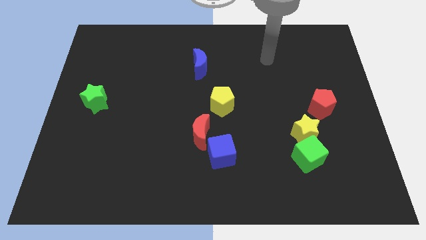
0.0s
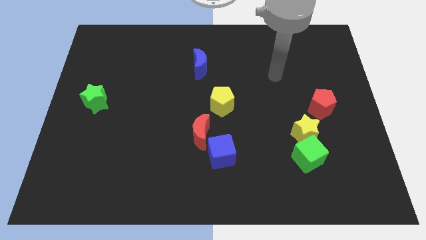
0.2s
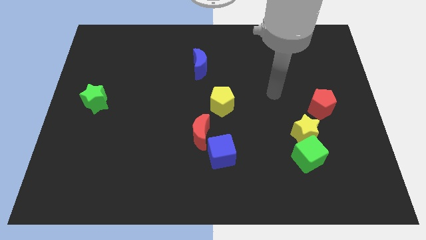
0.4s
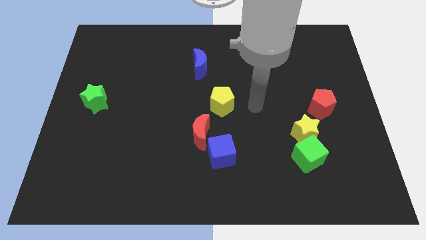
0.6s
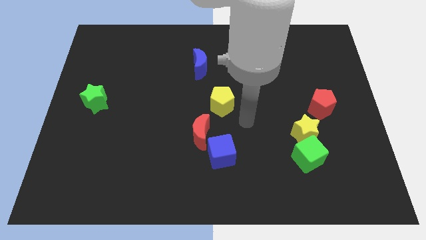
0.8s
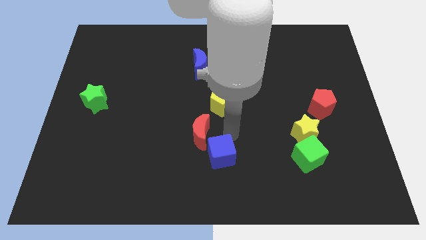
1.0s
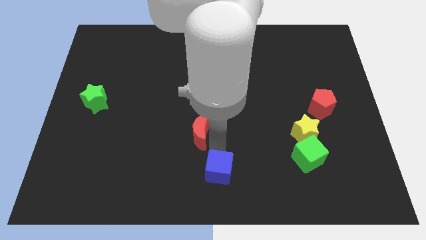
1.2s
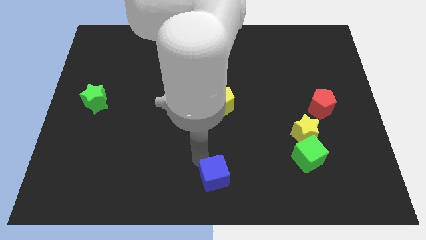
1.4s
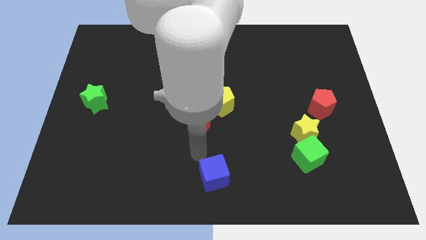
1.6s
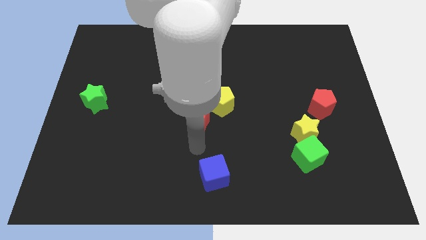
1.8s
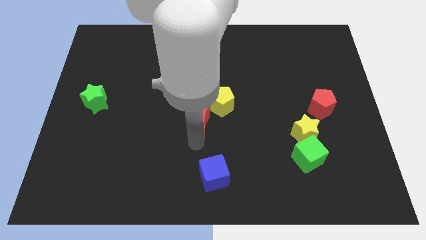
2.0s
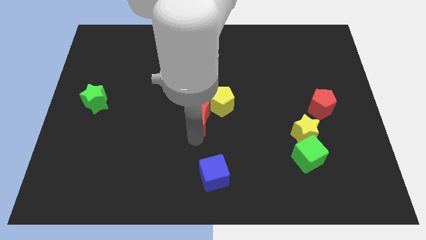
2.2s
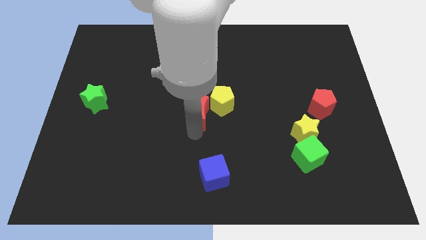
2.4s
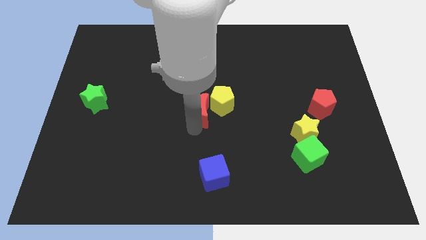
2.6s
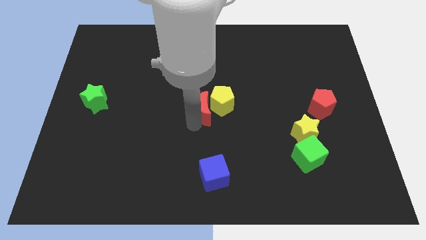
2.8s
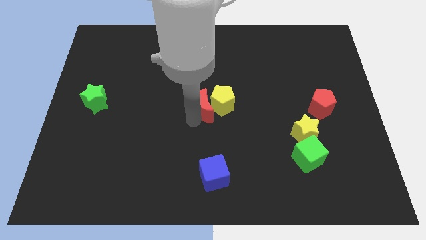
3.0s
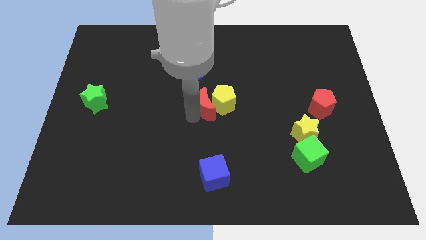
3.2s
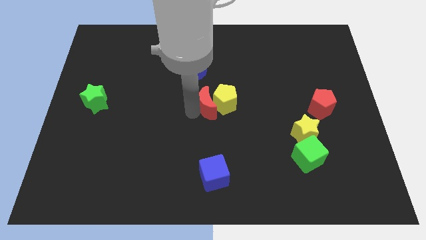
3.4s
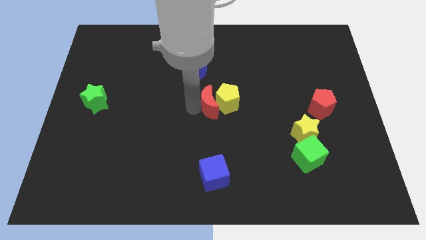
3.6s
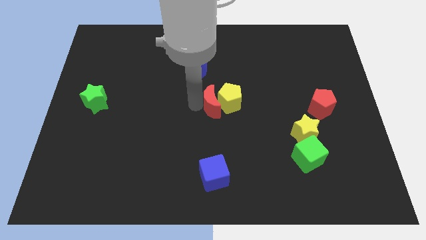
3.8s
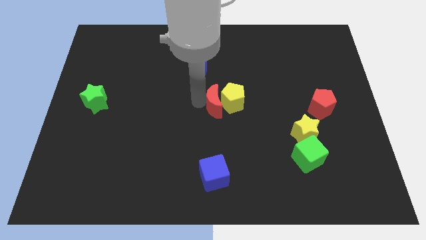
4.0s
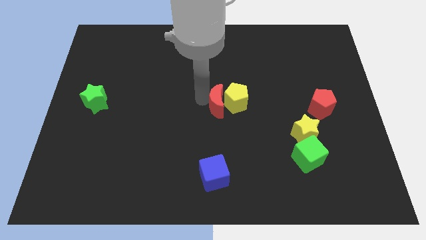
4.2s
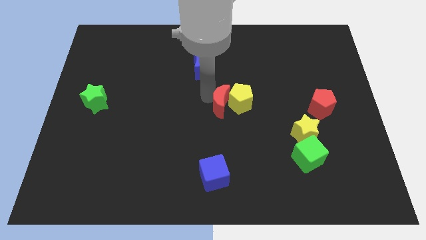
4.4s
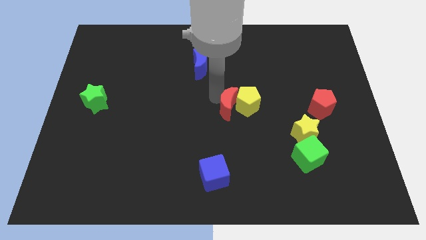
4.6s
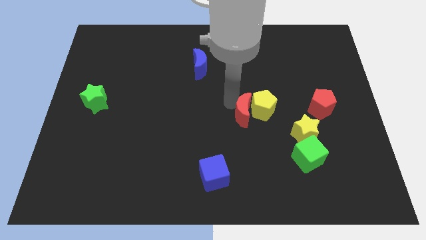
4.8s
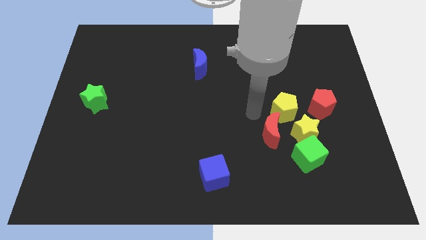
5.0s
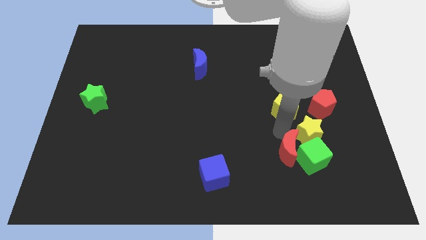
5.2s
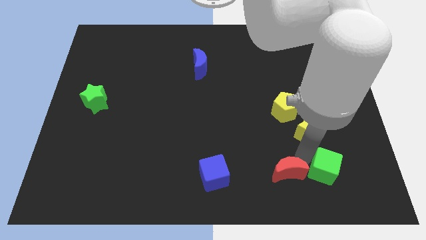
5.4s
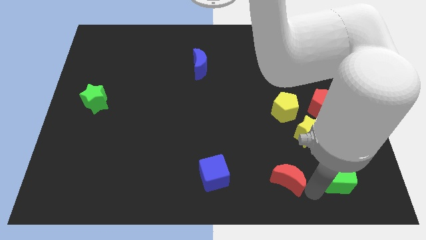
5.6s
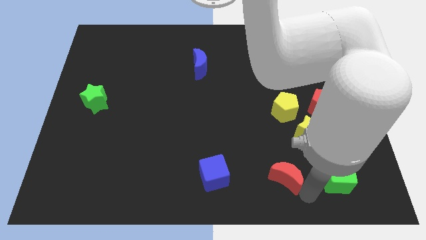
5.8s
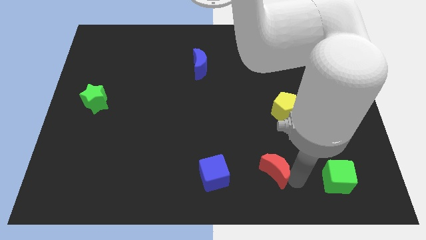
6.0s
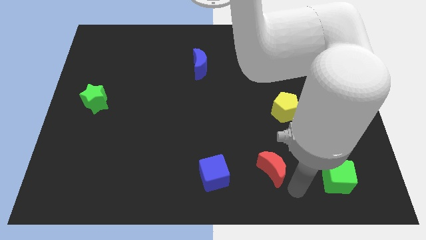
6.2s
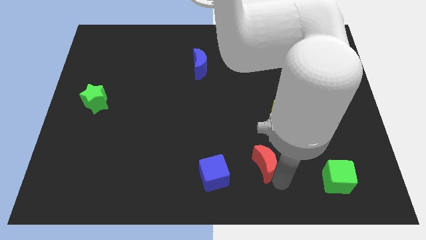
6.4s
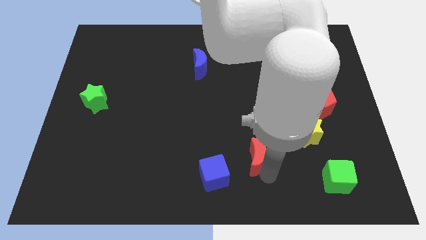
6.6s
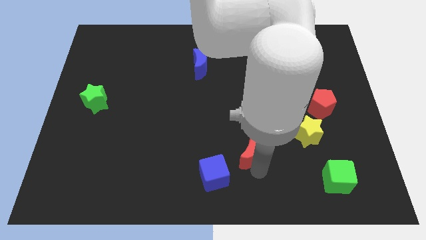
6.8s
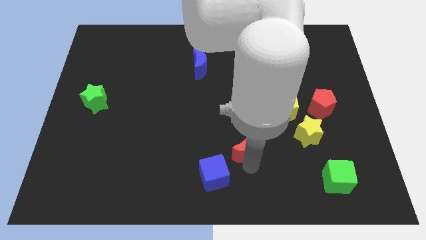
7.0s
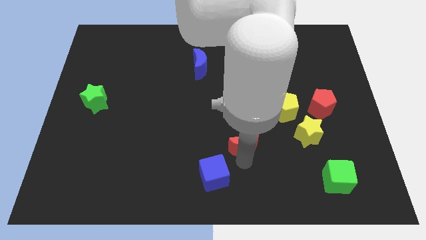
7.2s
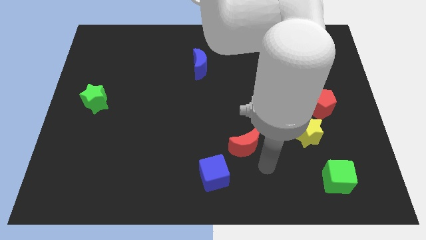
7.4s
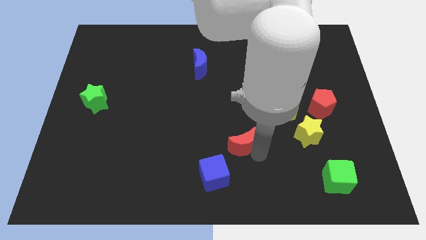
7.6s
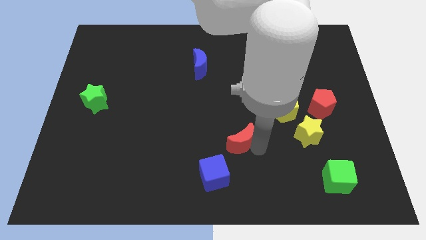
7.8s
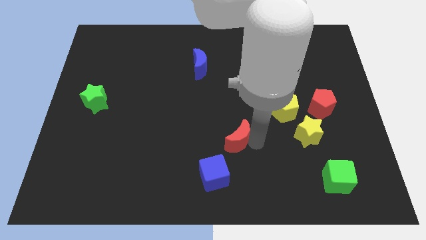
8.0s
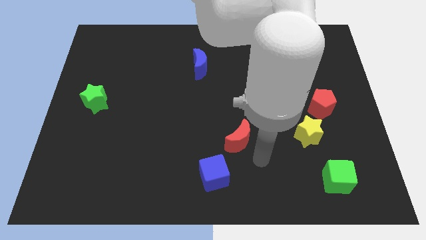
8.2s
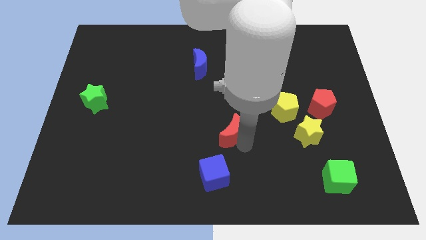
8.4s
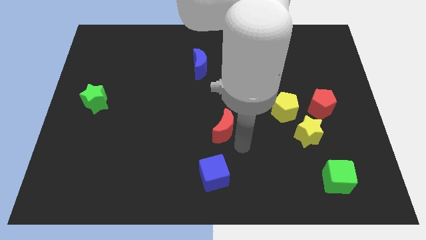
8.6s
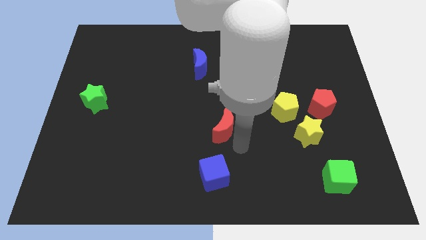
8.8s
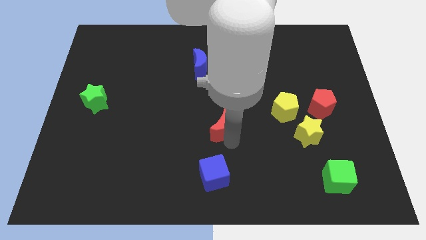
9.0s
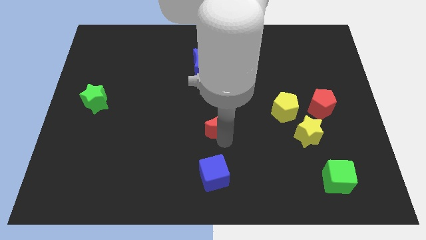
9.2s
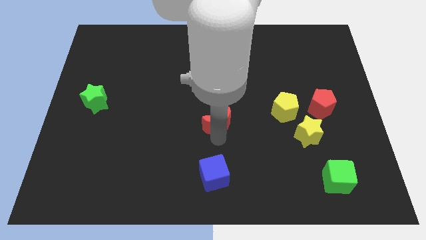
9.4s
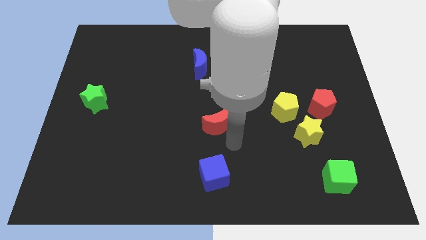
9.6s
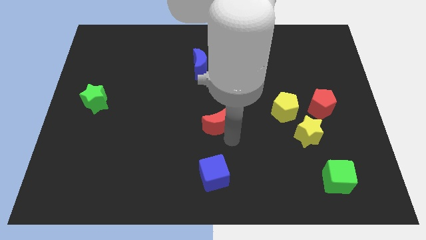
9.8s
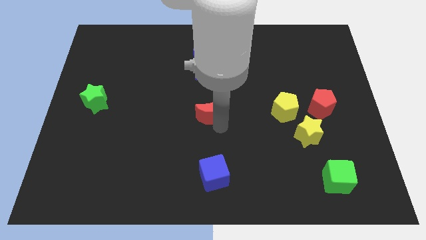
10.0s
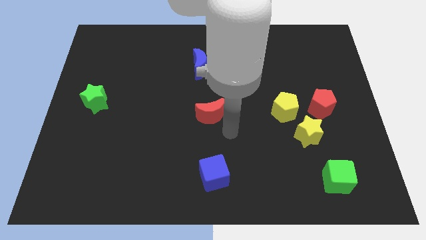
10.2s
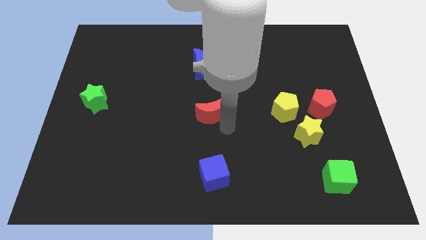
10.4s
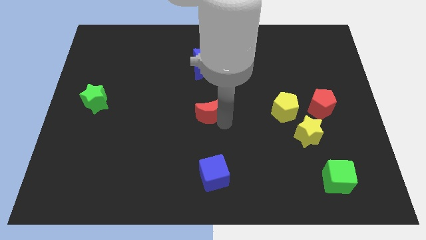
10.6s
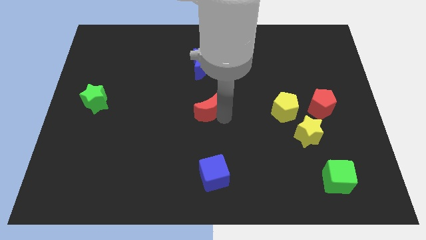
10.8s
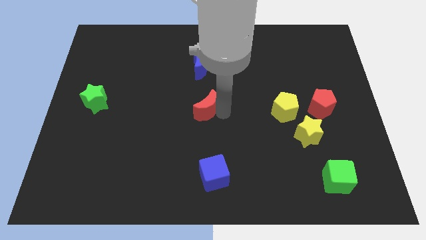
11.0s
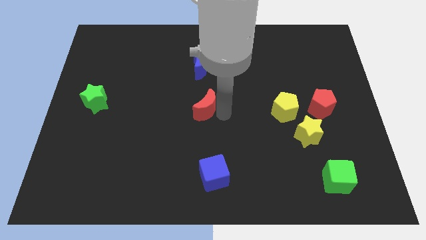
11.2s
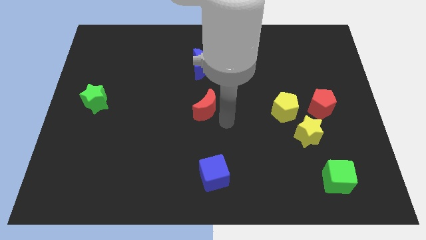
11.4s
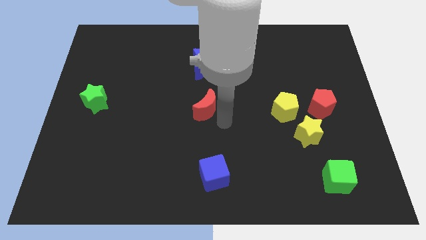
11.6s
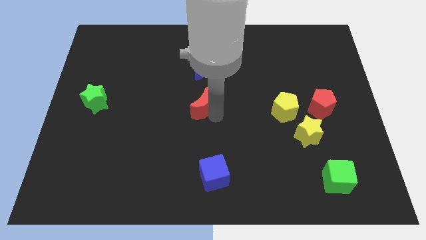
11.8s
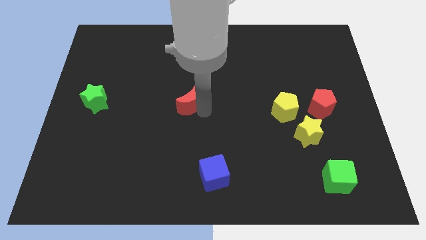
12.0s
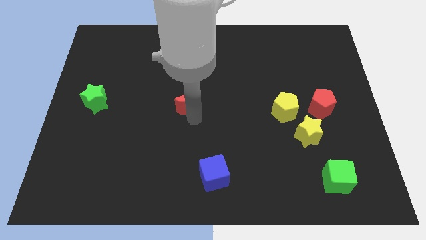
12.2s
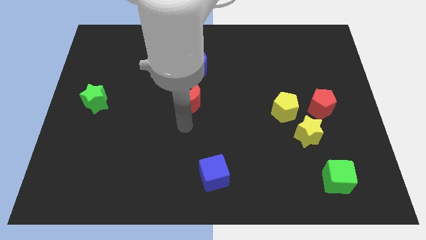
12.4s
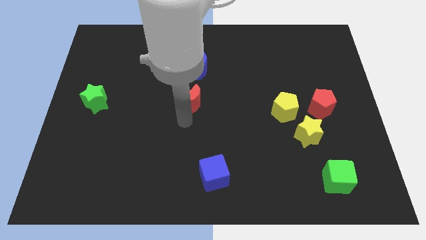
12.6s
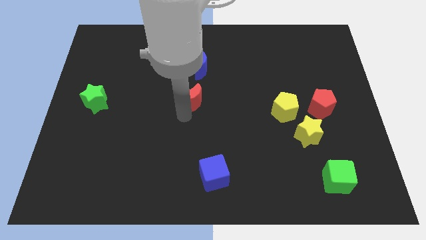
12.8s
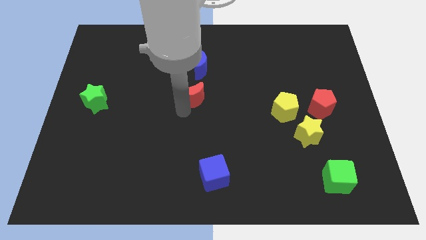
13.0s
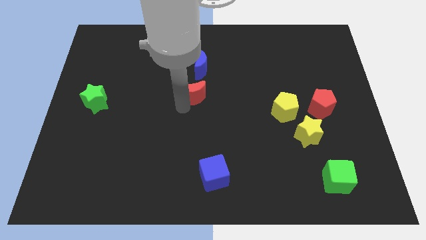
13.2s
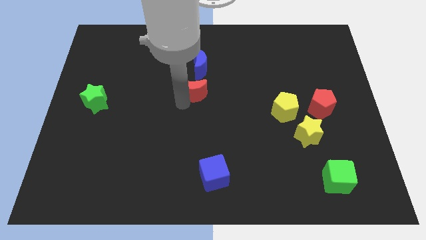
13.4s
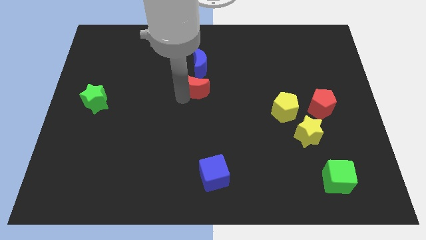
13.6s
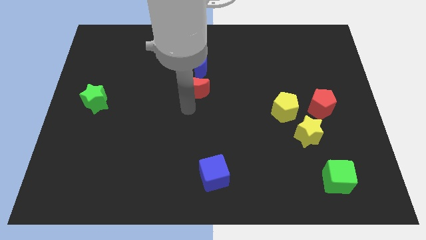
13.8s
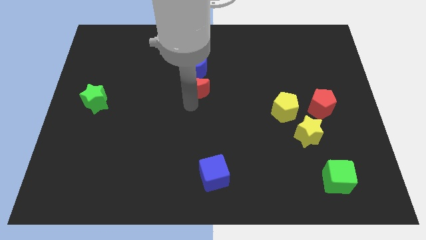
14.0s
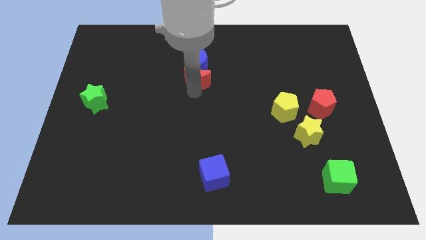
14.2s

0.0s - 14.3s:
slide the red moon to the blue moon
